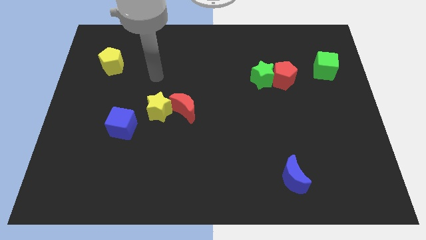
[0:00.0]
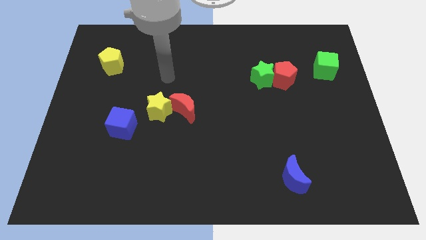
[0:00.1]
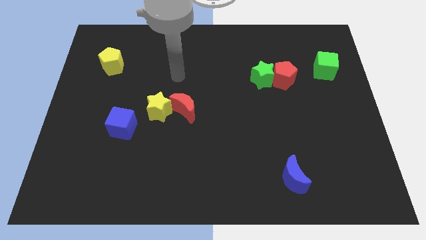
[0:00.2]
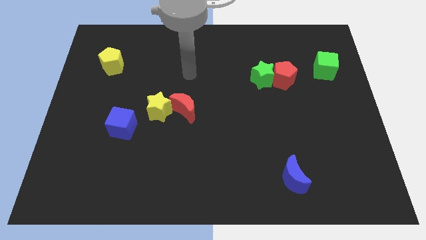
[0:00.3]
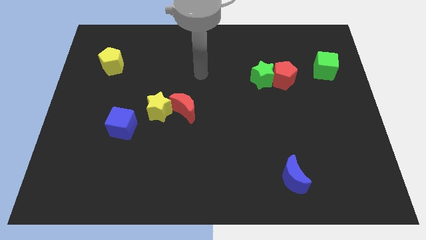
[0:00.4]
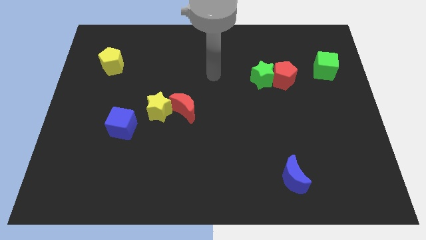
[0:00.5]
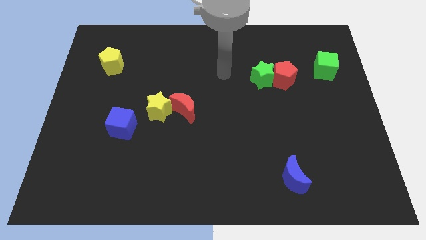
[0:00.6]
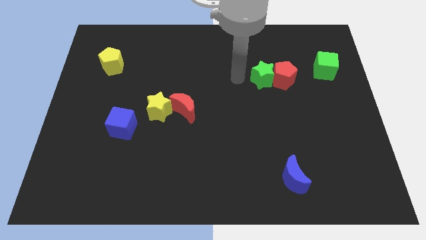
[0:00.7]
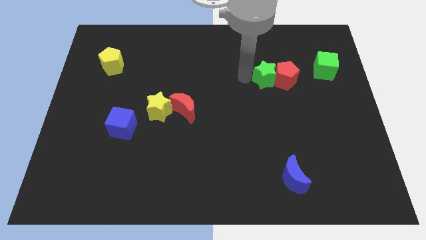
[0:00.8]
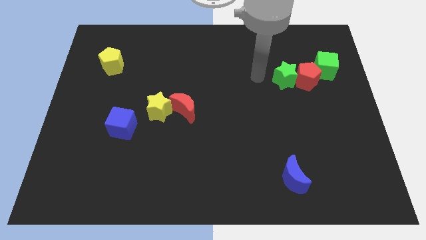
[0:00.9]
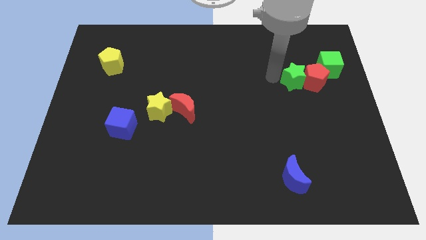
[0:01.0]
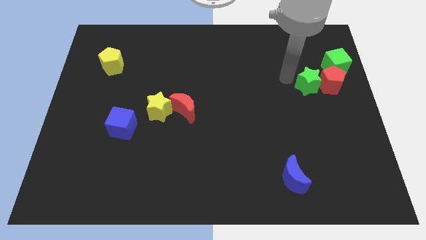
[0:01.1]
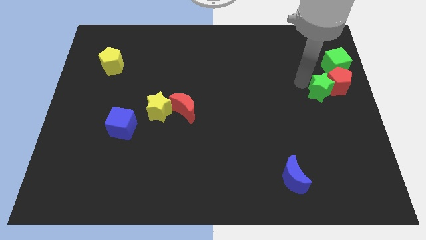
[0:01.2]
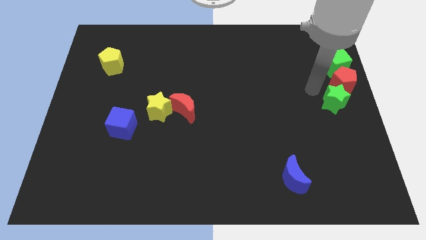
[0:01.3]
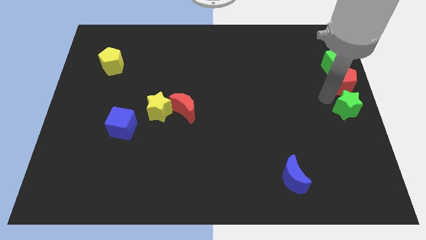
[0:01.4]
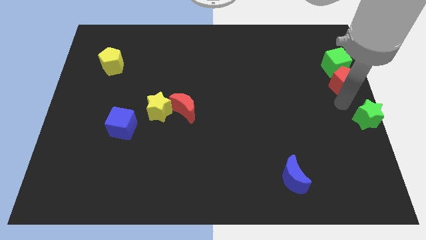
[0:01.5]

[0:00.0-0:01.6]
separate the red pentagon from the green star

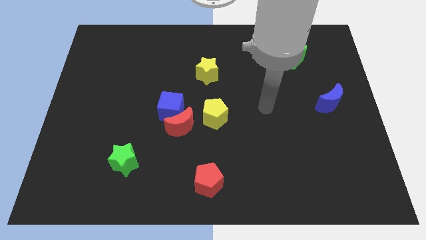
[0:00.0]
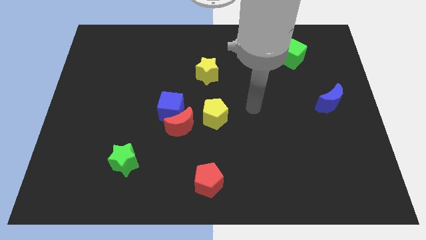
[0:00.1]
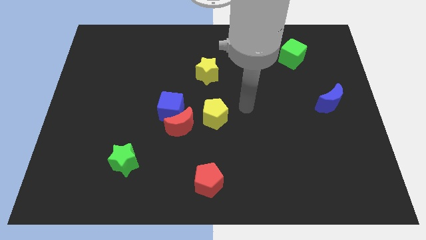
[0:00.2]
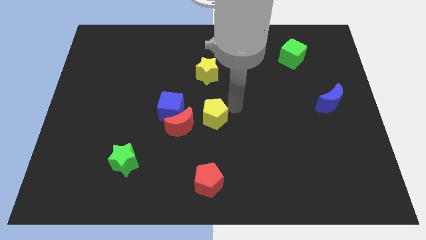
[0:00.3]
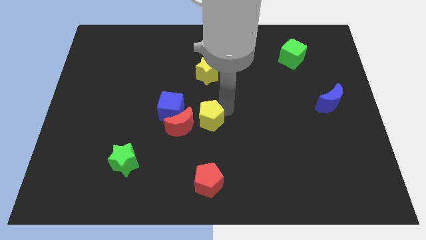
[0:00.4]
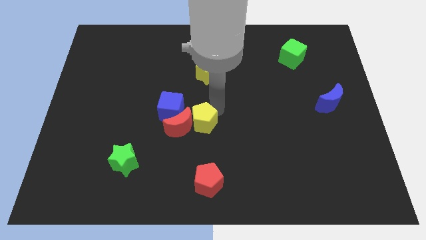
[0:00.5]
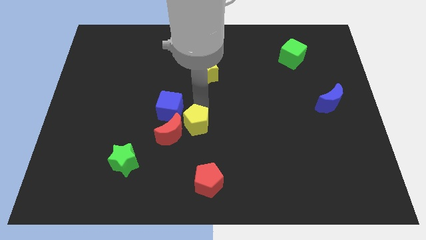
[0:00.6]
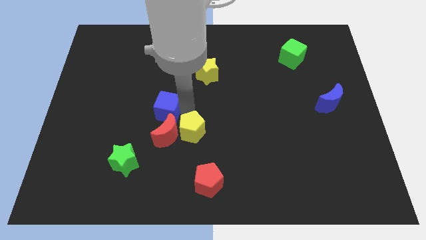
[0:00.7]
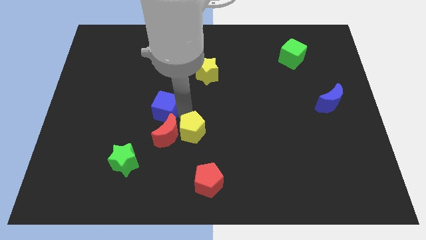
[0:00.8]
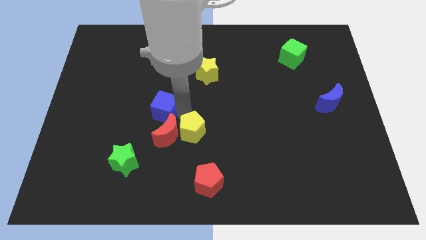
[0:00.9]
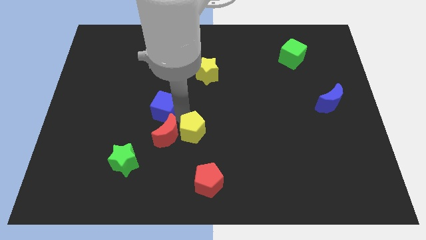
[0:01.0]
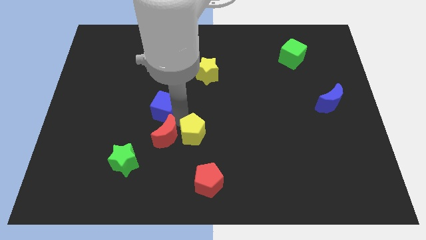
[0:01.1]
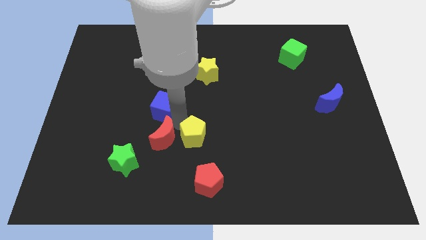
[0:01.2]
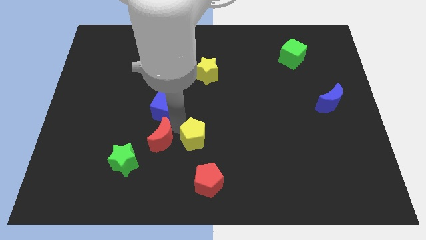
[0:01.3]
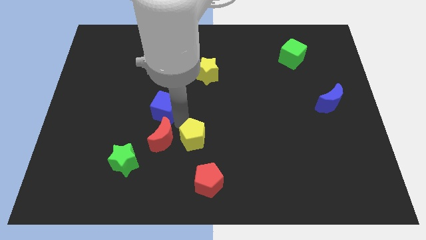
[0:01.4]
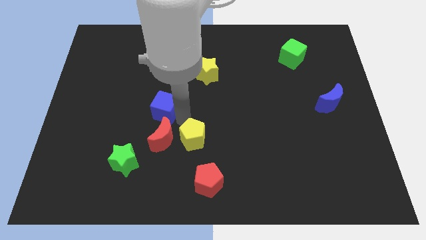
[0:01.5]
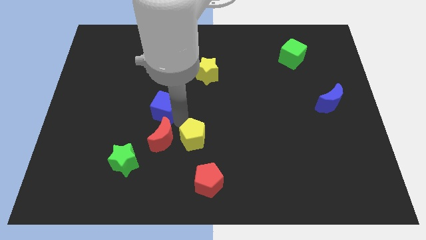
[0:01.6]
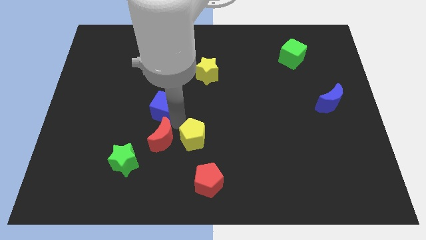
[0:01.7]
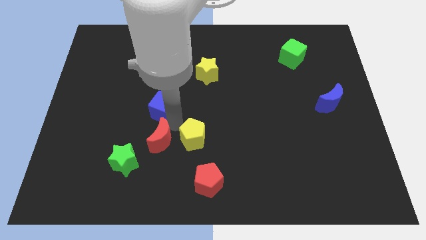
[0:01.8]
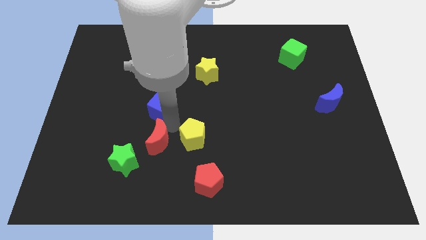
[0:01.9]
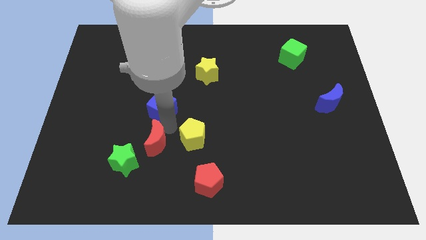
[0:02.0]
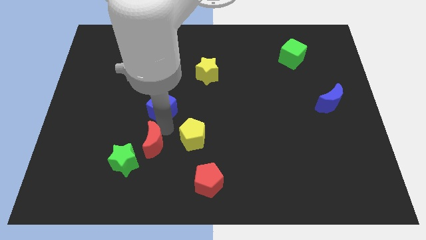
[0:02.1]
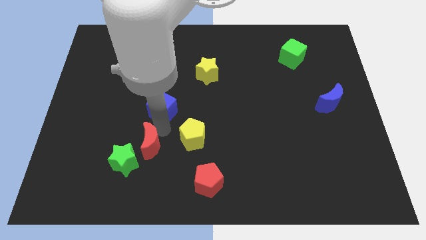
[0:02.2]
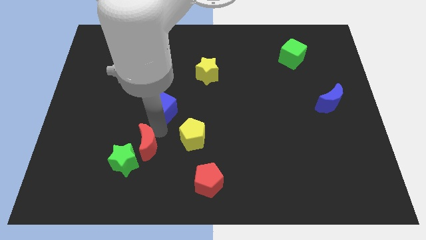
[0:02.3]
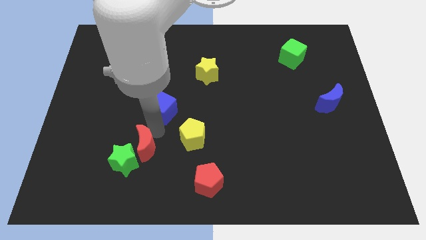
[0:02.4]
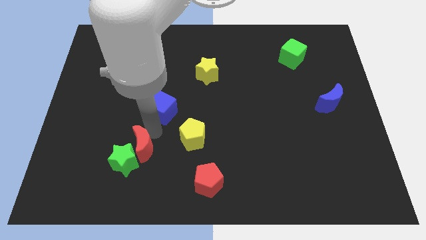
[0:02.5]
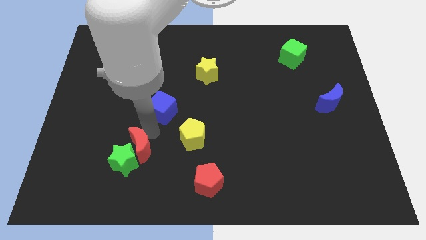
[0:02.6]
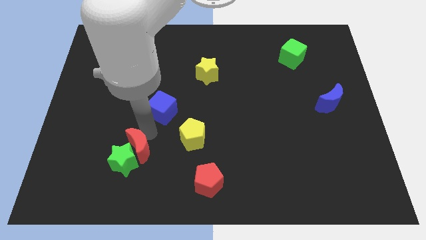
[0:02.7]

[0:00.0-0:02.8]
separate the red moon from the blue cube and yellow pentagon

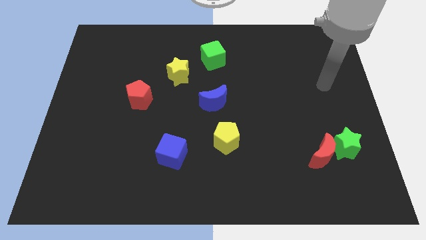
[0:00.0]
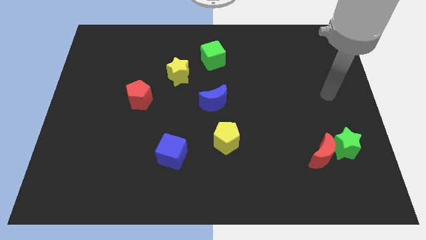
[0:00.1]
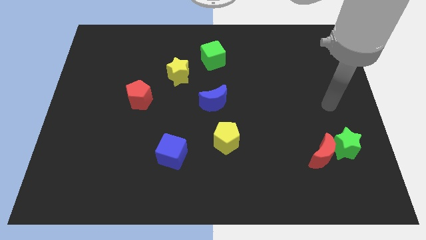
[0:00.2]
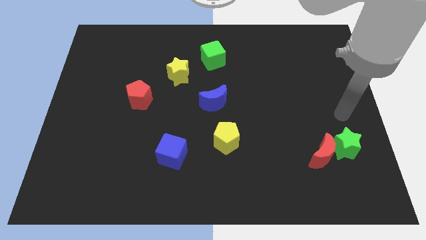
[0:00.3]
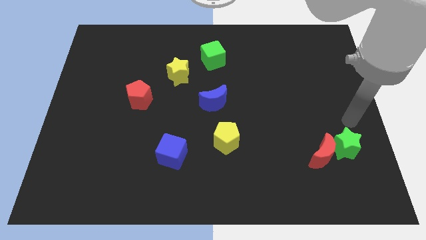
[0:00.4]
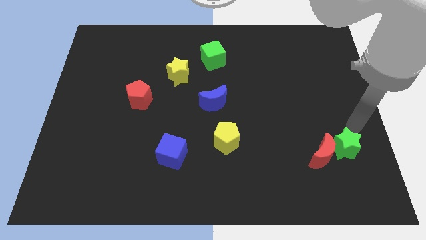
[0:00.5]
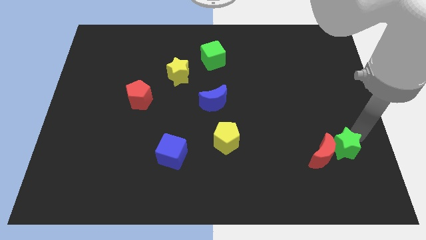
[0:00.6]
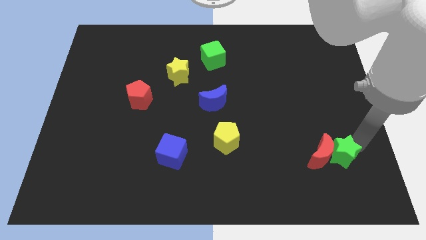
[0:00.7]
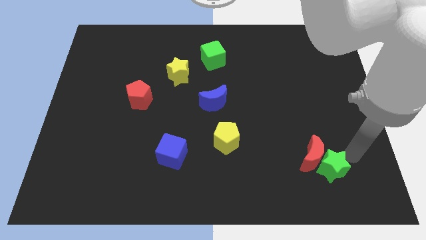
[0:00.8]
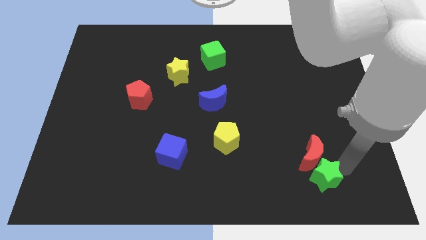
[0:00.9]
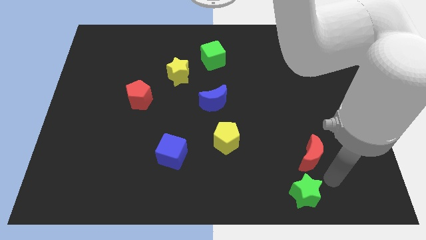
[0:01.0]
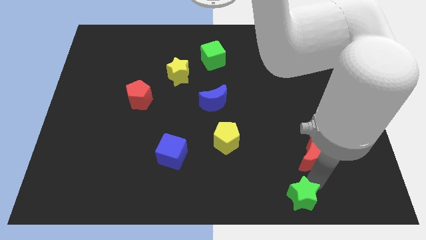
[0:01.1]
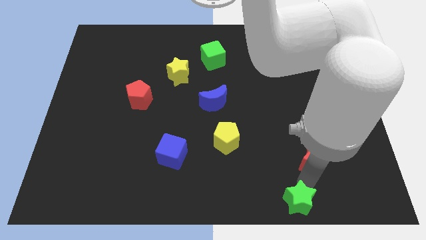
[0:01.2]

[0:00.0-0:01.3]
pull the red moon apart from the green star

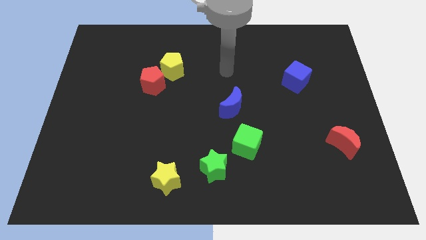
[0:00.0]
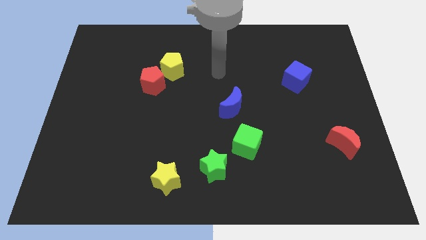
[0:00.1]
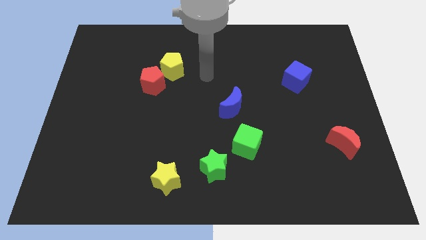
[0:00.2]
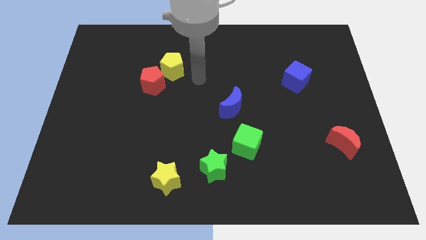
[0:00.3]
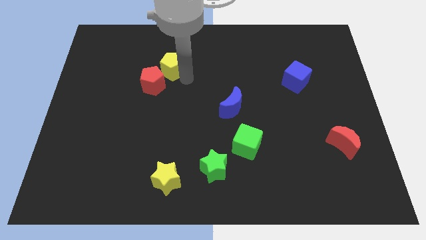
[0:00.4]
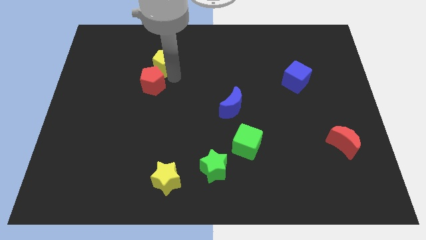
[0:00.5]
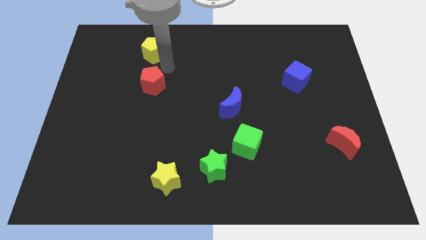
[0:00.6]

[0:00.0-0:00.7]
separate the red pentagon from the yellow pentagon

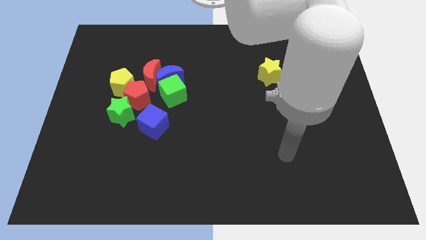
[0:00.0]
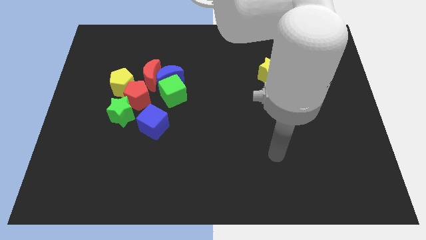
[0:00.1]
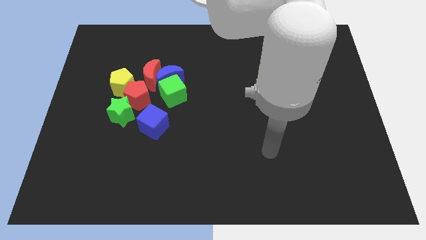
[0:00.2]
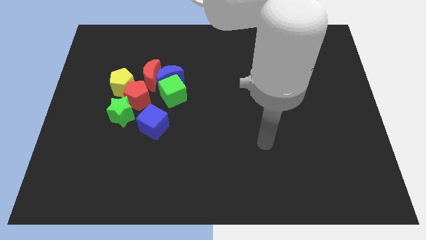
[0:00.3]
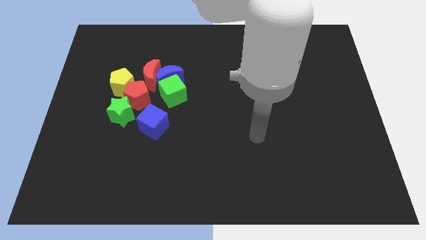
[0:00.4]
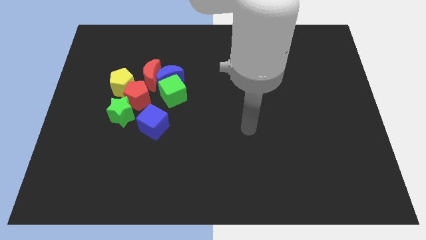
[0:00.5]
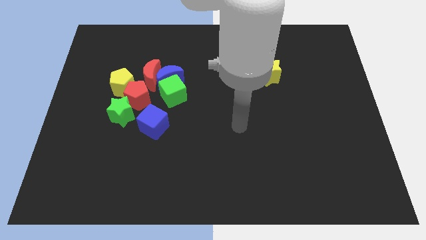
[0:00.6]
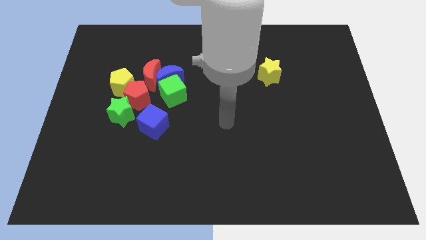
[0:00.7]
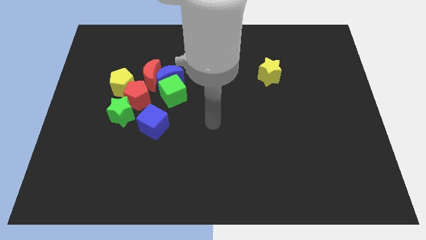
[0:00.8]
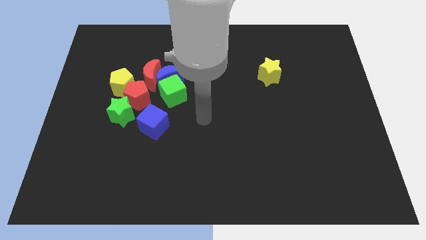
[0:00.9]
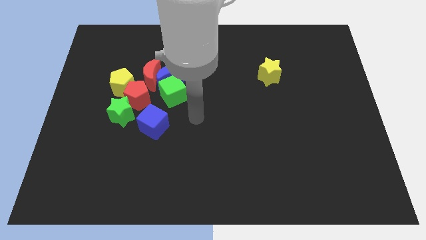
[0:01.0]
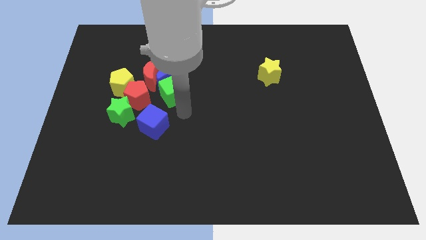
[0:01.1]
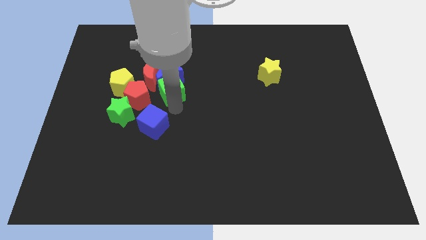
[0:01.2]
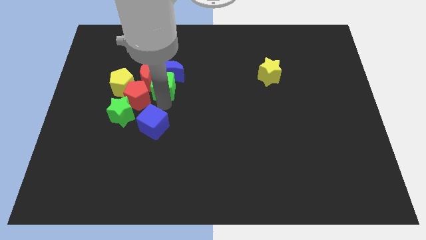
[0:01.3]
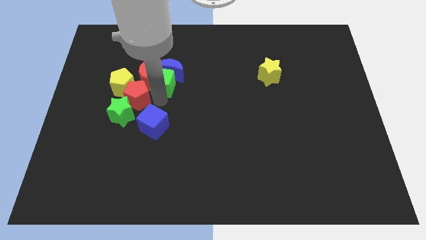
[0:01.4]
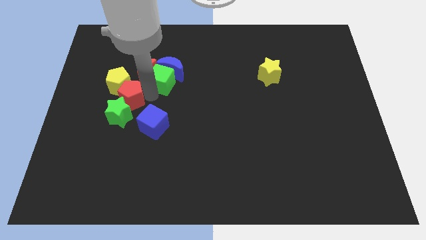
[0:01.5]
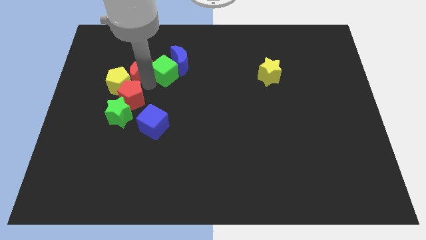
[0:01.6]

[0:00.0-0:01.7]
move the blue moon away from the clump

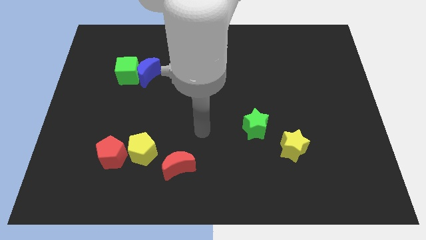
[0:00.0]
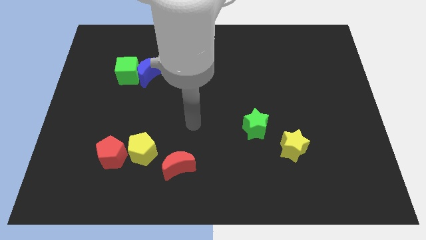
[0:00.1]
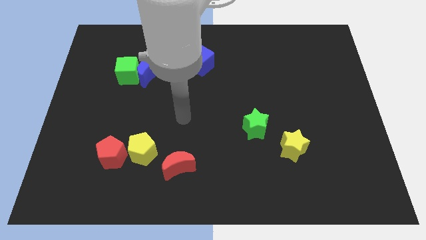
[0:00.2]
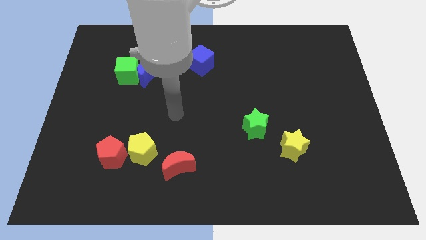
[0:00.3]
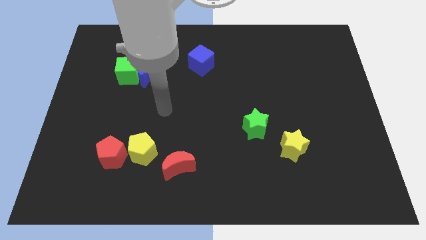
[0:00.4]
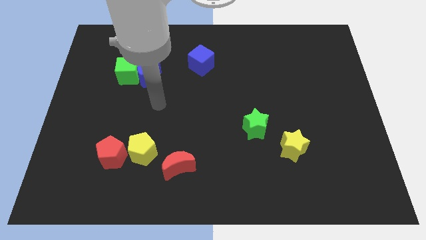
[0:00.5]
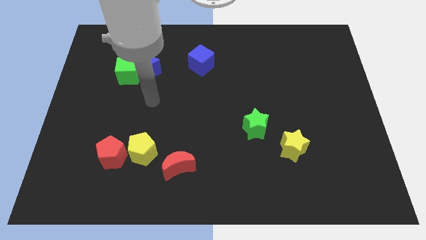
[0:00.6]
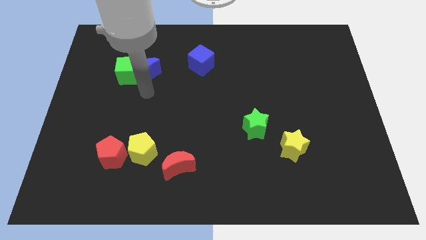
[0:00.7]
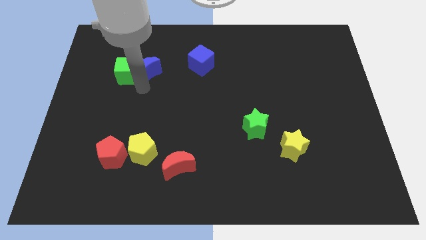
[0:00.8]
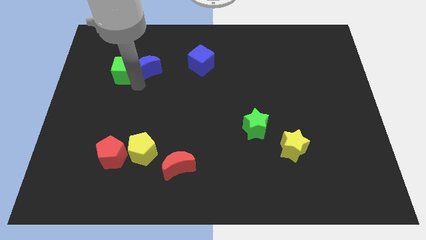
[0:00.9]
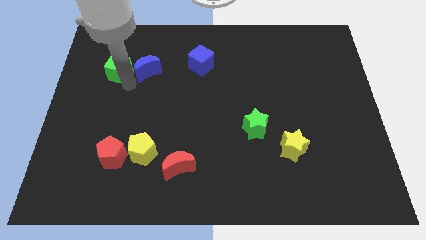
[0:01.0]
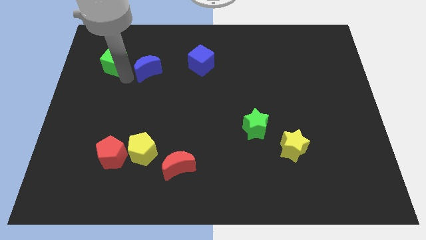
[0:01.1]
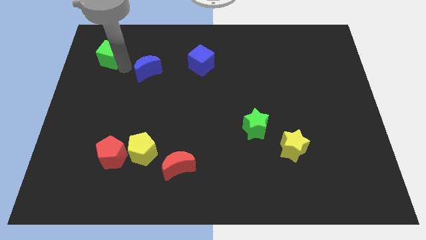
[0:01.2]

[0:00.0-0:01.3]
separate the blue moon from the green cube

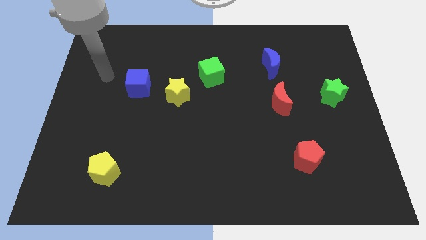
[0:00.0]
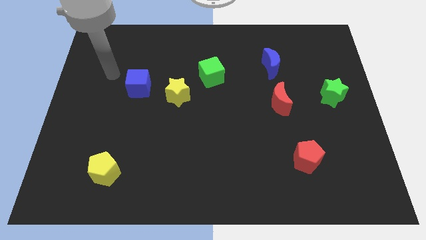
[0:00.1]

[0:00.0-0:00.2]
pull the green cube apart from the yellow star
